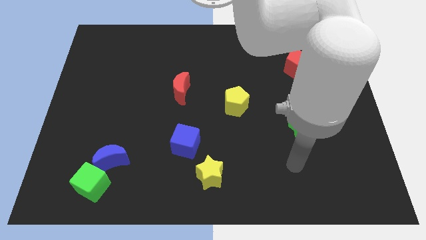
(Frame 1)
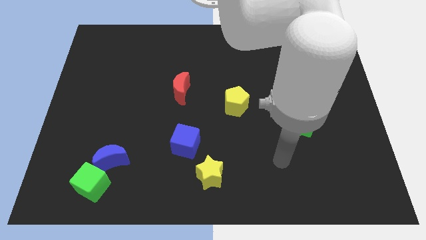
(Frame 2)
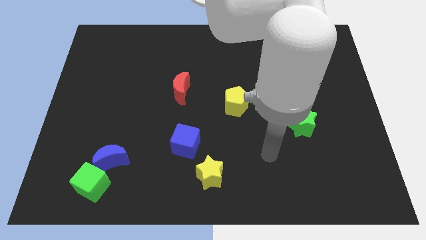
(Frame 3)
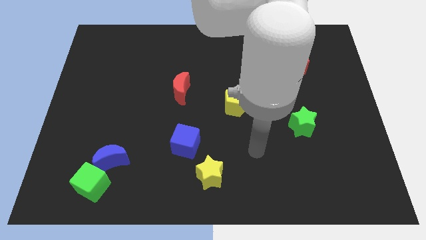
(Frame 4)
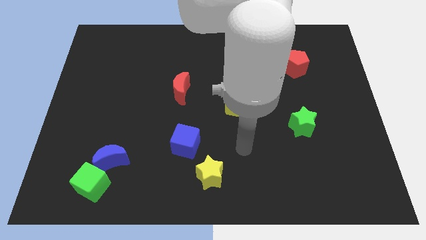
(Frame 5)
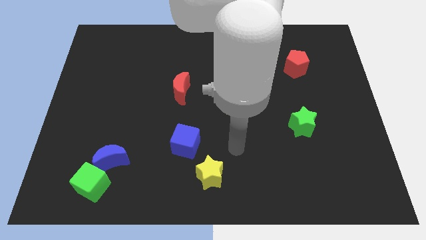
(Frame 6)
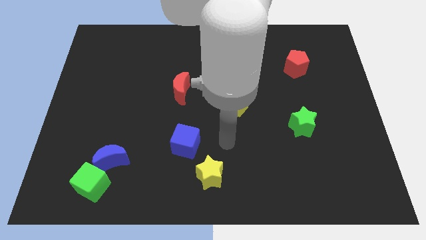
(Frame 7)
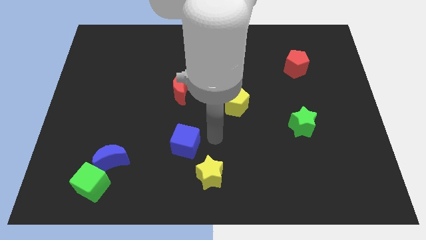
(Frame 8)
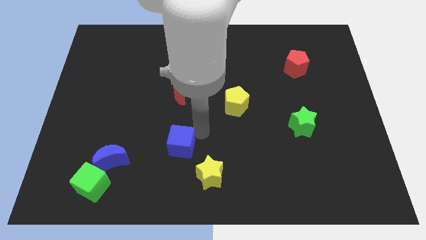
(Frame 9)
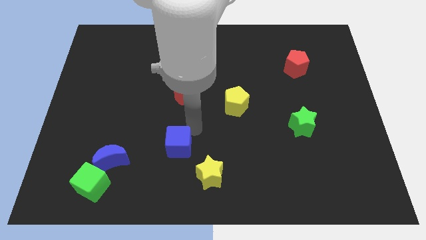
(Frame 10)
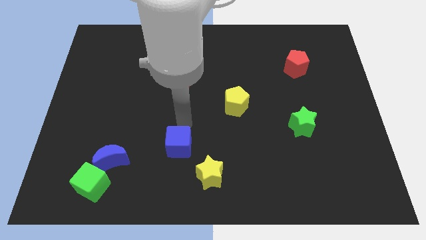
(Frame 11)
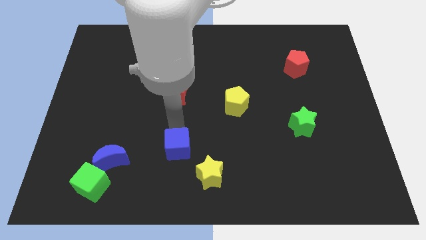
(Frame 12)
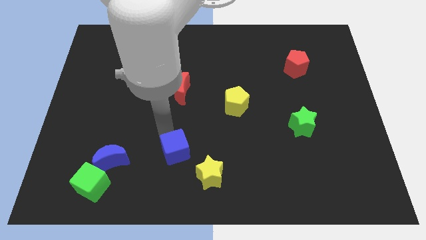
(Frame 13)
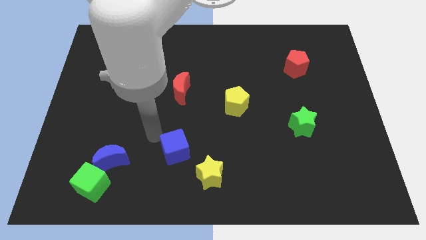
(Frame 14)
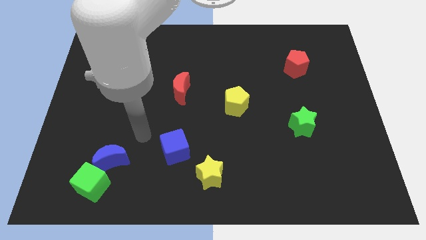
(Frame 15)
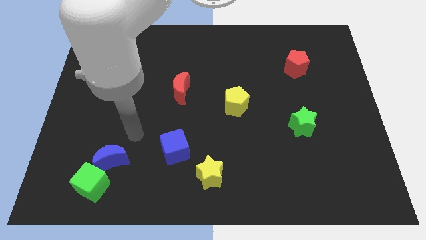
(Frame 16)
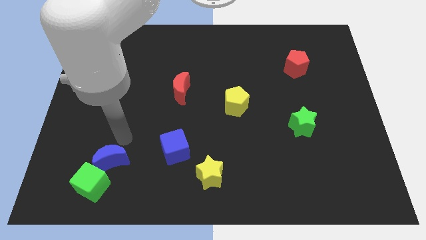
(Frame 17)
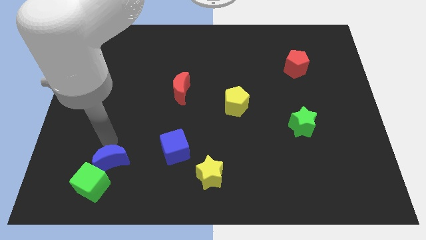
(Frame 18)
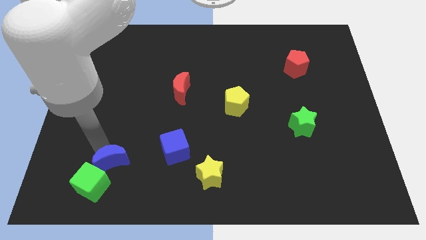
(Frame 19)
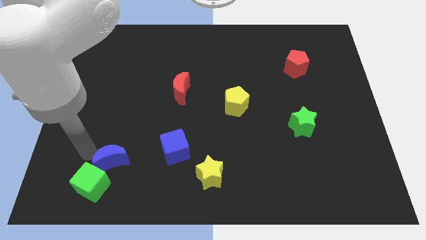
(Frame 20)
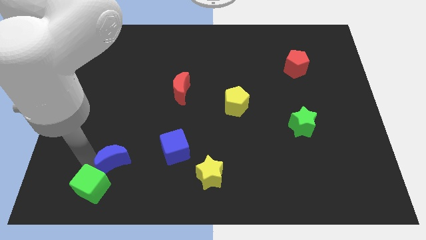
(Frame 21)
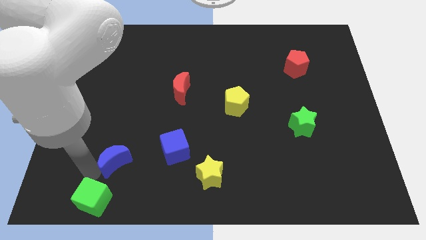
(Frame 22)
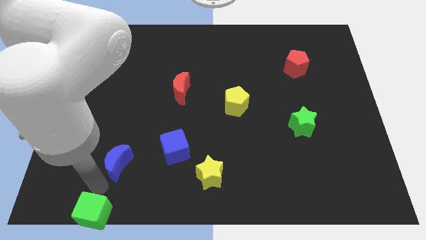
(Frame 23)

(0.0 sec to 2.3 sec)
pull the blue moon apart from the green cube

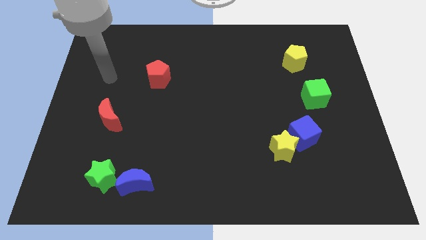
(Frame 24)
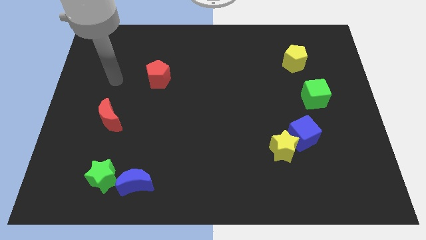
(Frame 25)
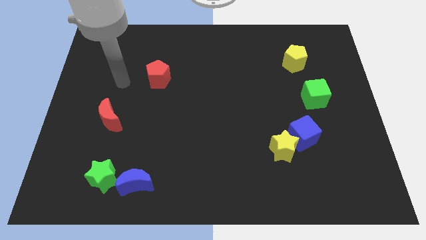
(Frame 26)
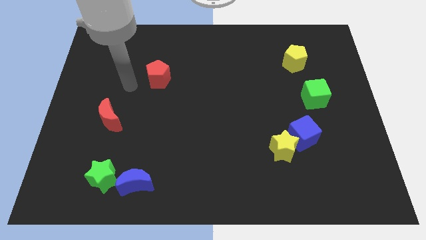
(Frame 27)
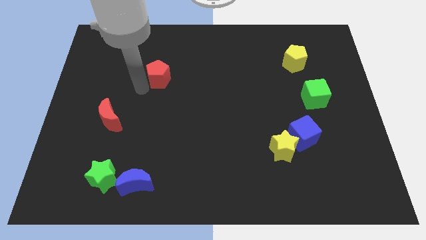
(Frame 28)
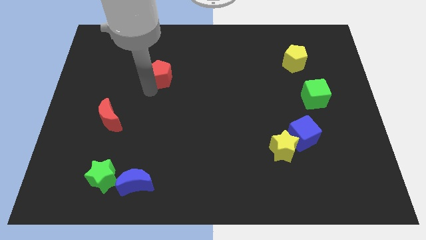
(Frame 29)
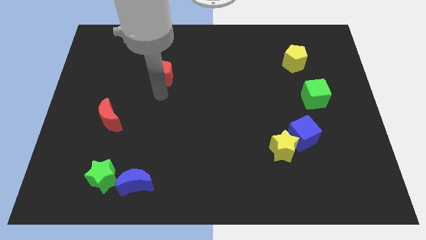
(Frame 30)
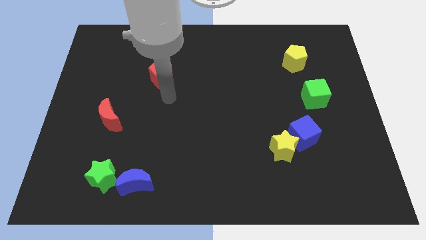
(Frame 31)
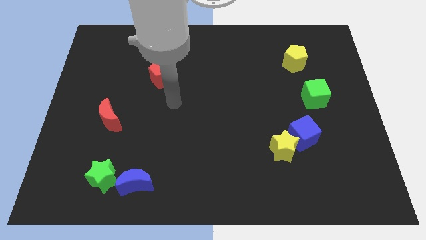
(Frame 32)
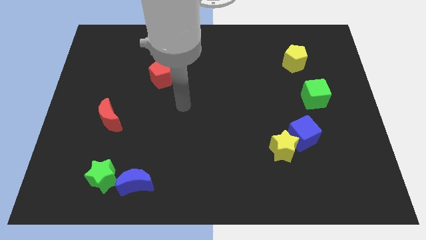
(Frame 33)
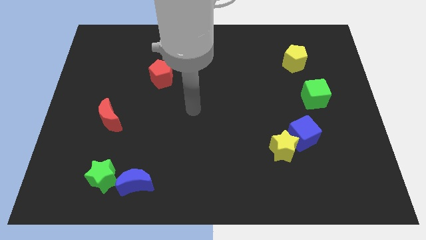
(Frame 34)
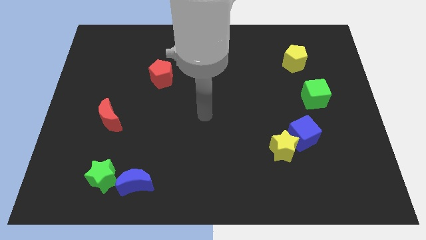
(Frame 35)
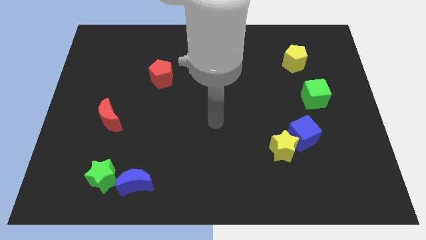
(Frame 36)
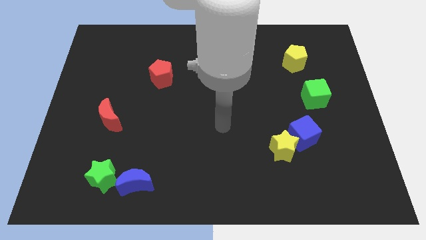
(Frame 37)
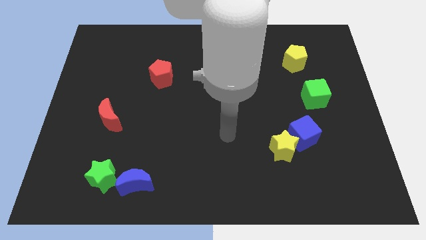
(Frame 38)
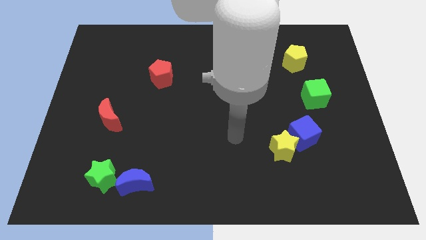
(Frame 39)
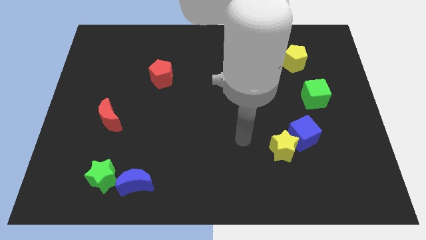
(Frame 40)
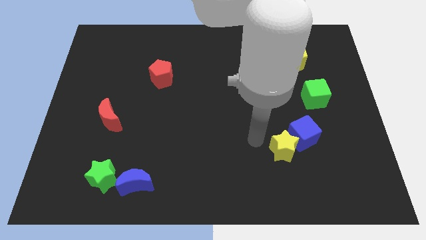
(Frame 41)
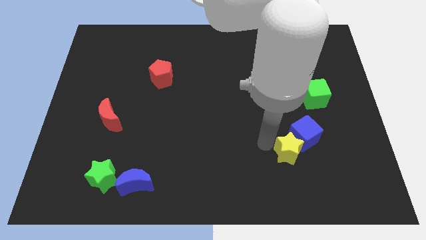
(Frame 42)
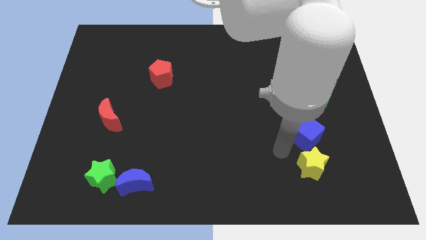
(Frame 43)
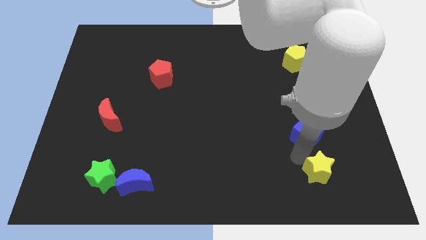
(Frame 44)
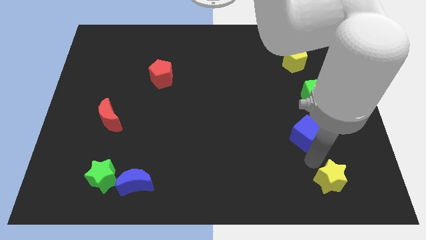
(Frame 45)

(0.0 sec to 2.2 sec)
pull the blue cube apart from the yellow star

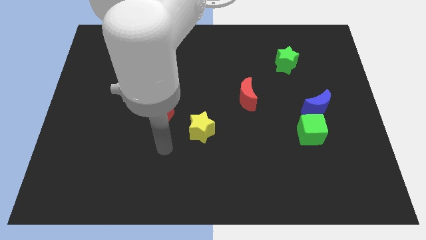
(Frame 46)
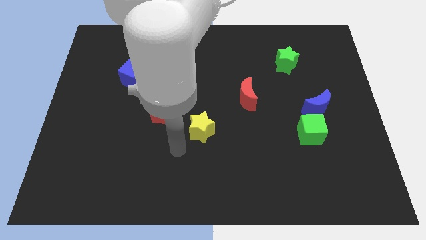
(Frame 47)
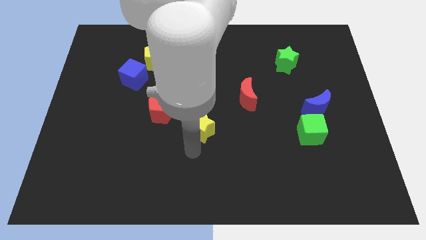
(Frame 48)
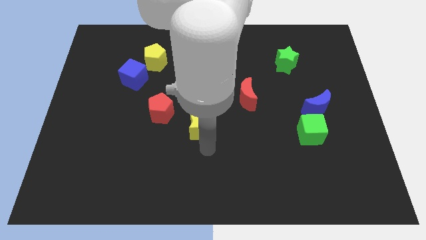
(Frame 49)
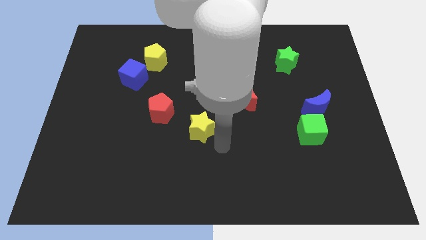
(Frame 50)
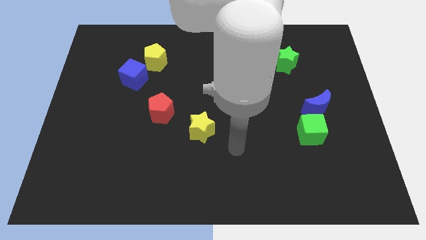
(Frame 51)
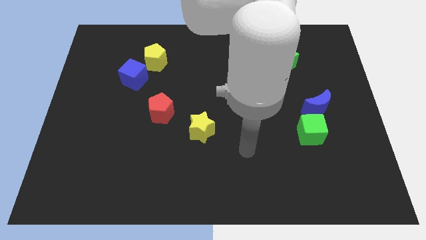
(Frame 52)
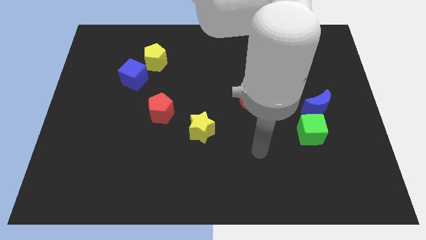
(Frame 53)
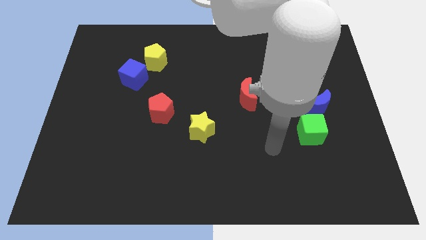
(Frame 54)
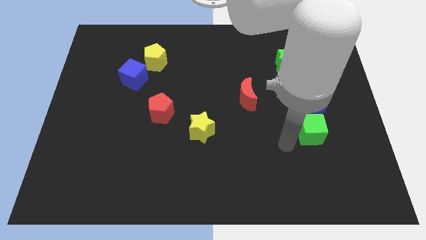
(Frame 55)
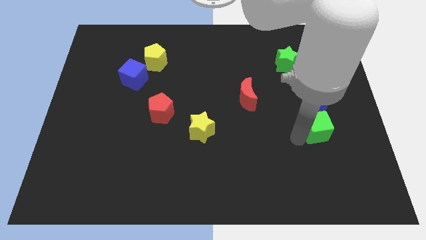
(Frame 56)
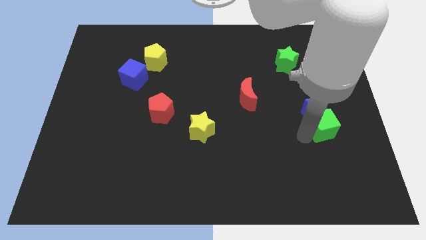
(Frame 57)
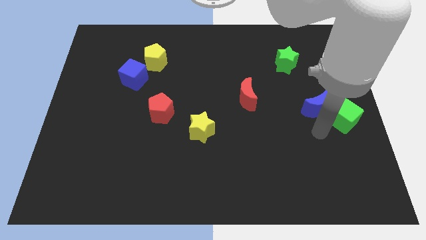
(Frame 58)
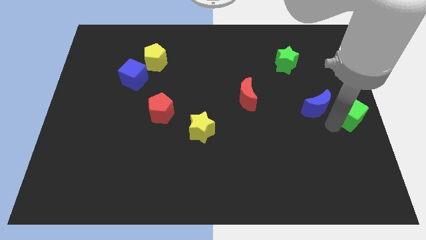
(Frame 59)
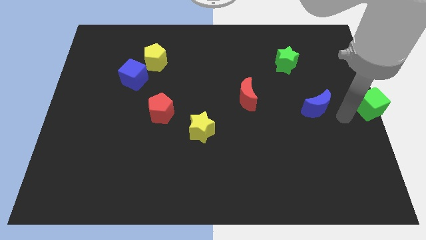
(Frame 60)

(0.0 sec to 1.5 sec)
separate the blue moon from the green cube

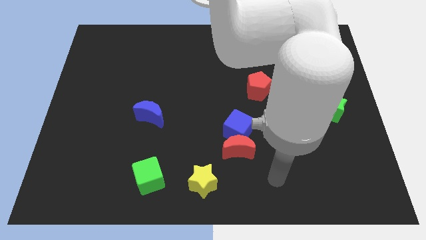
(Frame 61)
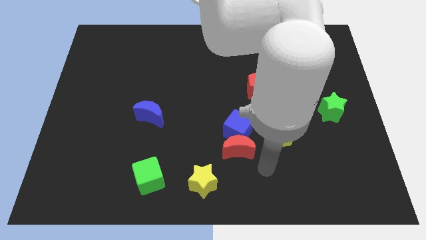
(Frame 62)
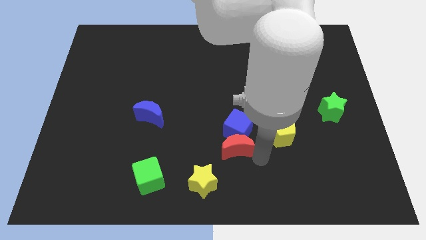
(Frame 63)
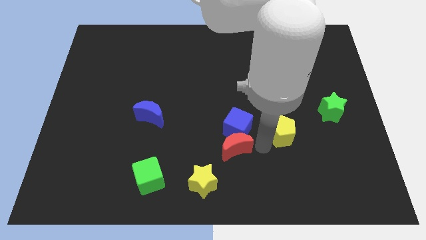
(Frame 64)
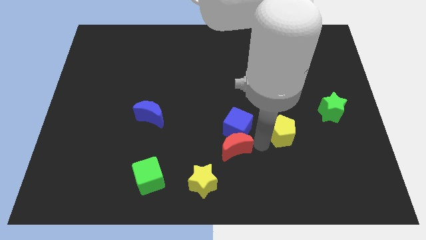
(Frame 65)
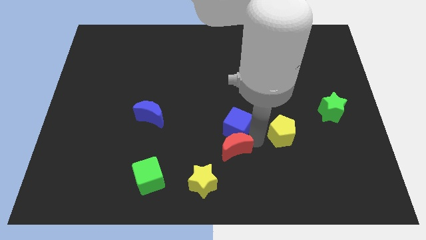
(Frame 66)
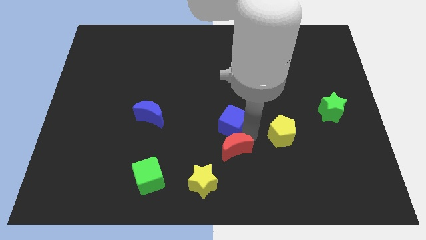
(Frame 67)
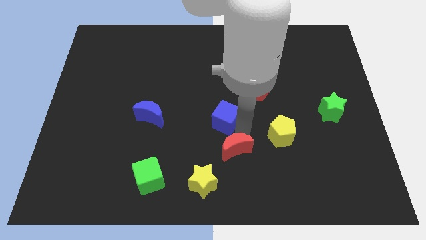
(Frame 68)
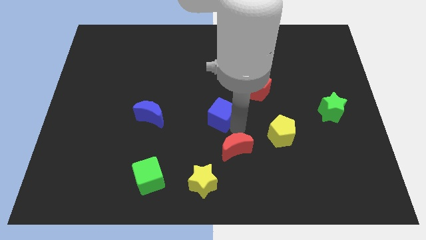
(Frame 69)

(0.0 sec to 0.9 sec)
pull the blue cube apart from the red moon and yellow pentagon

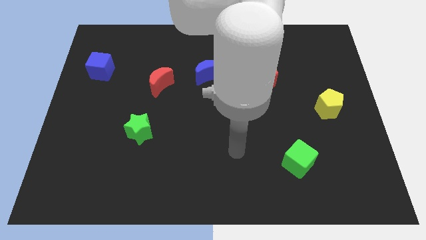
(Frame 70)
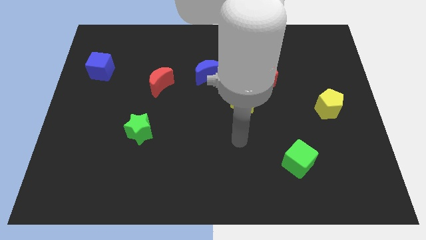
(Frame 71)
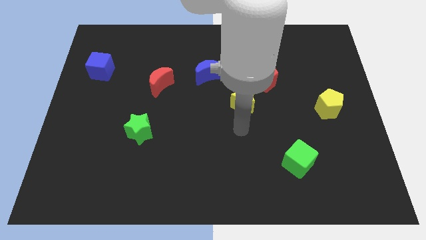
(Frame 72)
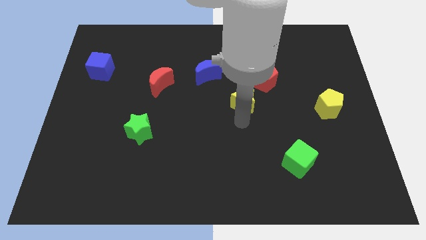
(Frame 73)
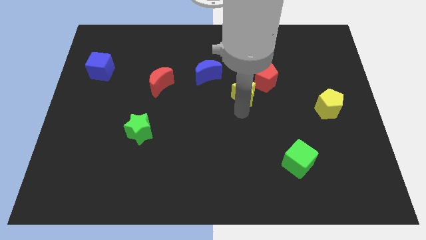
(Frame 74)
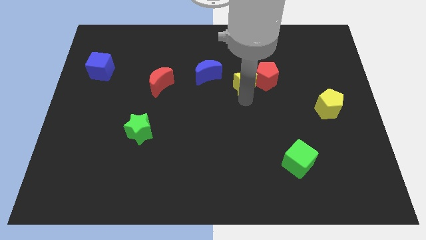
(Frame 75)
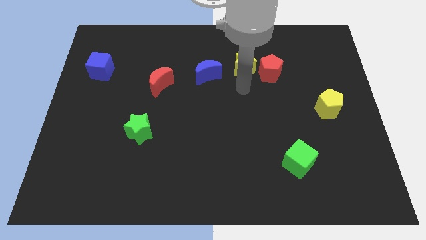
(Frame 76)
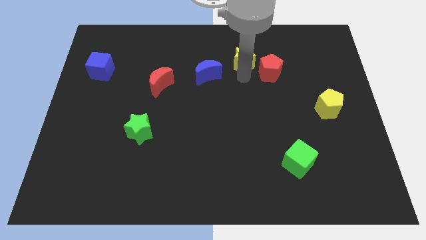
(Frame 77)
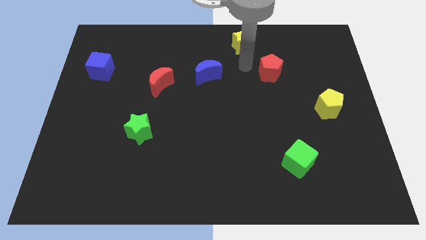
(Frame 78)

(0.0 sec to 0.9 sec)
separate the red pentagon from the yellow star

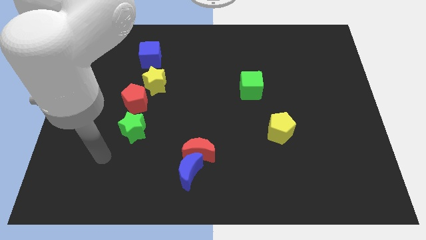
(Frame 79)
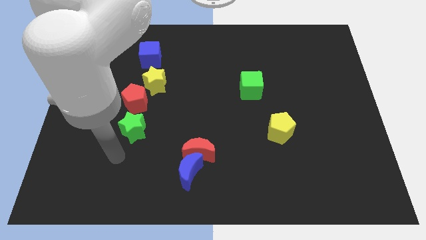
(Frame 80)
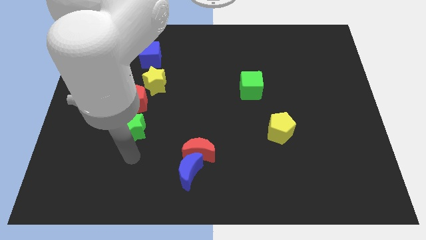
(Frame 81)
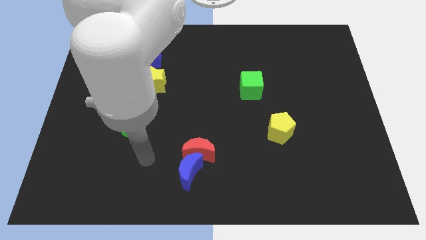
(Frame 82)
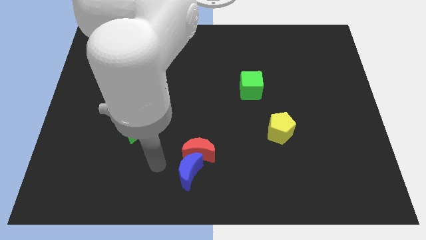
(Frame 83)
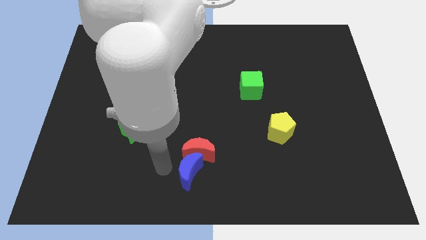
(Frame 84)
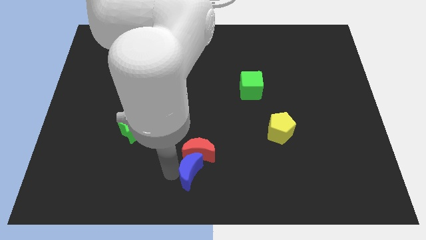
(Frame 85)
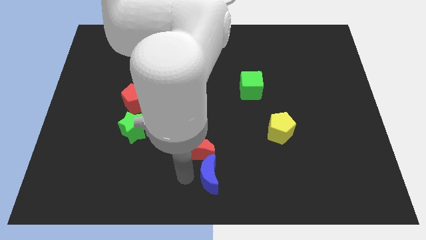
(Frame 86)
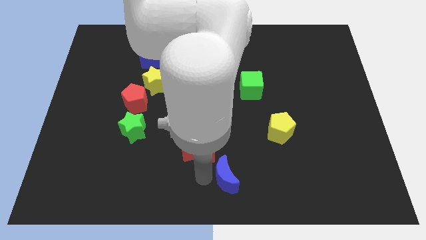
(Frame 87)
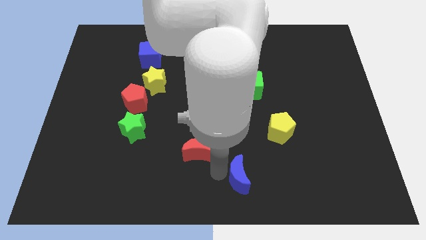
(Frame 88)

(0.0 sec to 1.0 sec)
pull the red moon apart from the blue moon

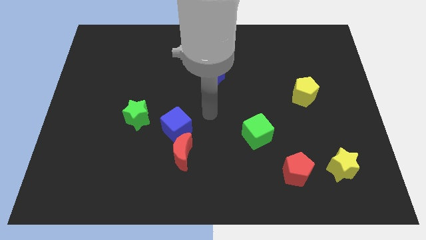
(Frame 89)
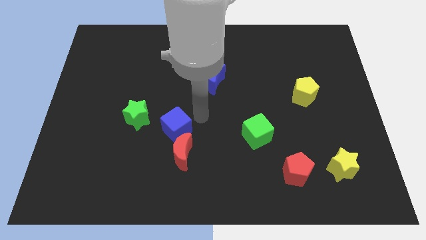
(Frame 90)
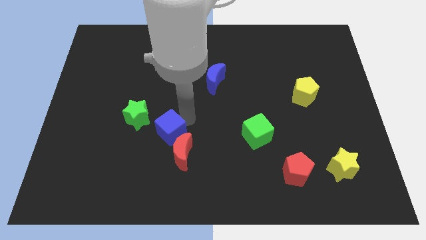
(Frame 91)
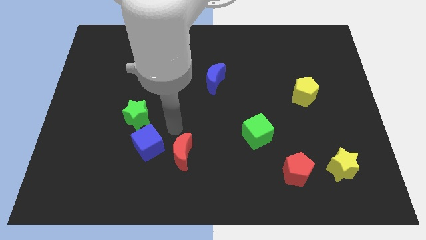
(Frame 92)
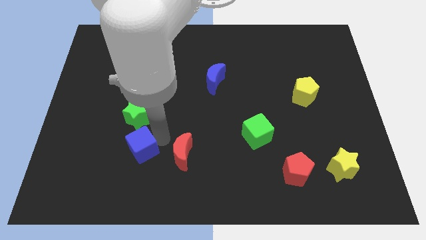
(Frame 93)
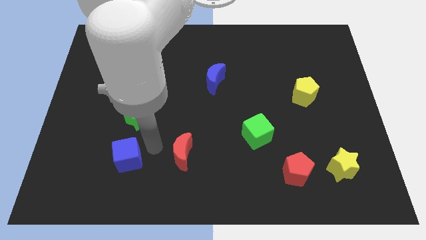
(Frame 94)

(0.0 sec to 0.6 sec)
move the red moon away from the blue cube
